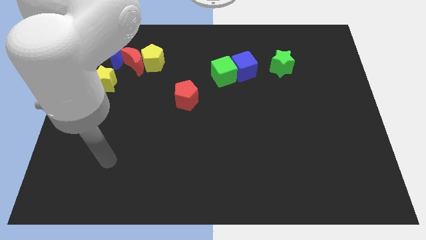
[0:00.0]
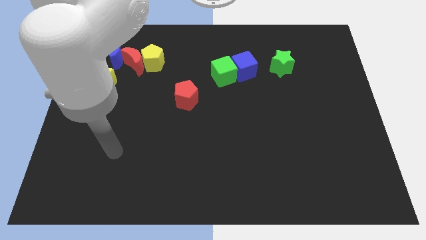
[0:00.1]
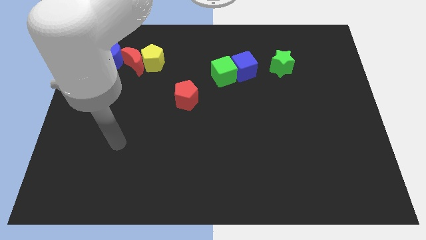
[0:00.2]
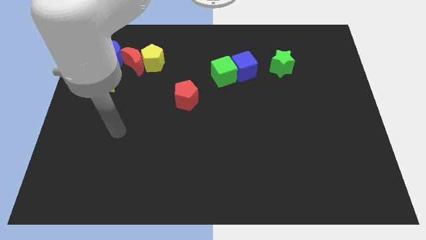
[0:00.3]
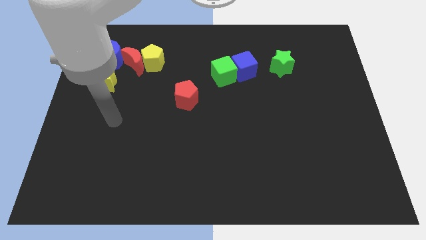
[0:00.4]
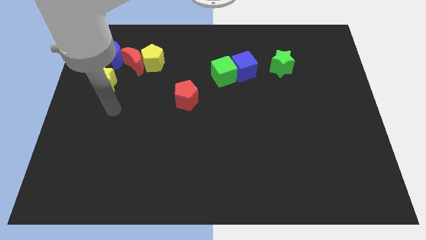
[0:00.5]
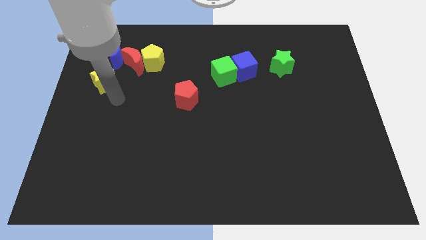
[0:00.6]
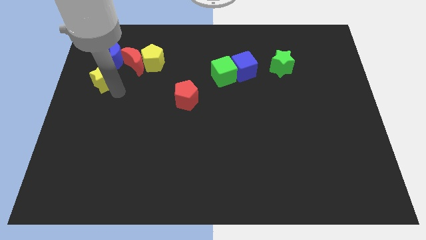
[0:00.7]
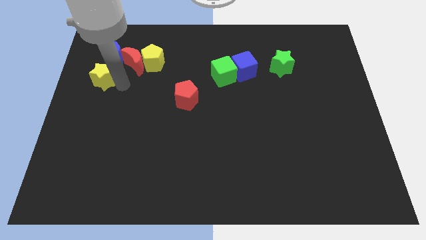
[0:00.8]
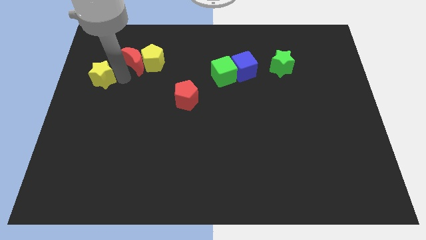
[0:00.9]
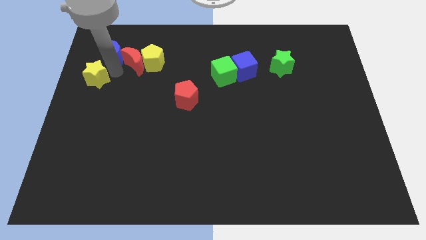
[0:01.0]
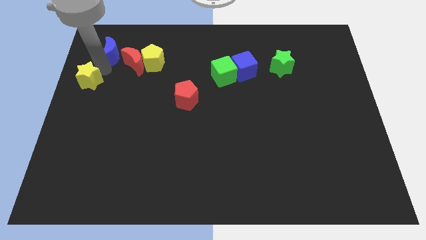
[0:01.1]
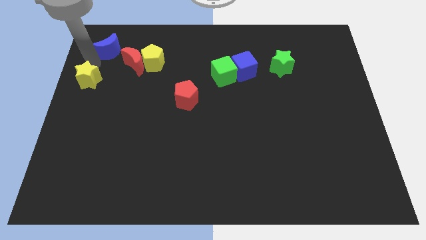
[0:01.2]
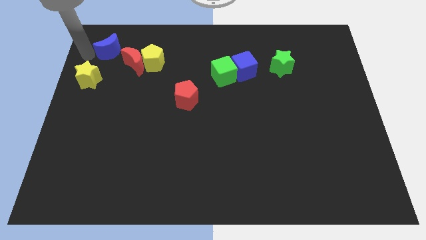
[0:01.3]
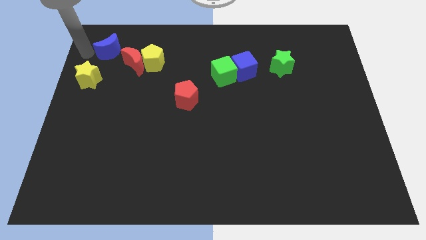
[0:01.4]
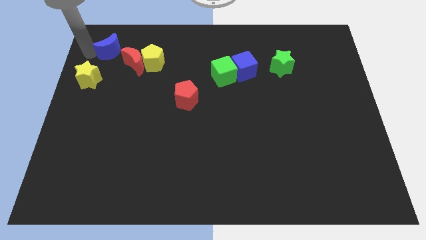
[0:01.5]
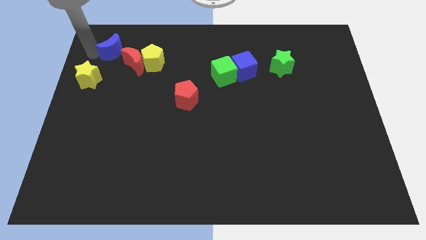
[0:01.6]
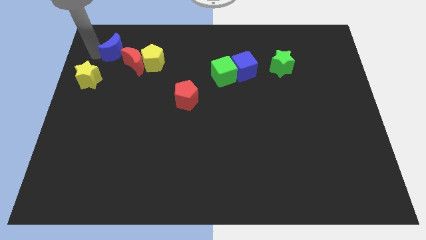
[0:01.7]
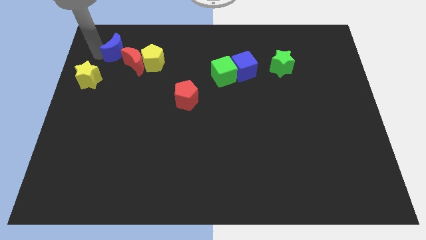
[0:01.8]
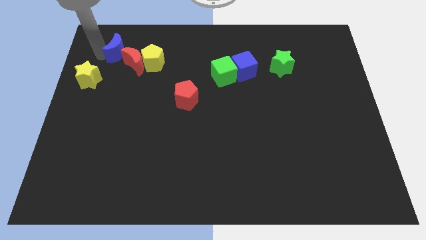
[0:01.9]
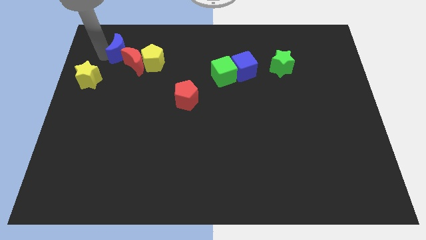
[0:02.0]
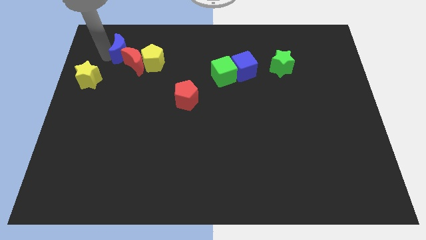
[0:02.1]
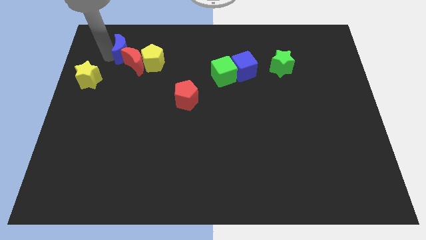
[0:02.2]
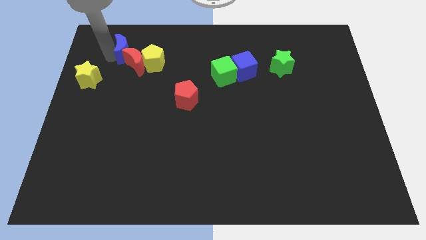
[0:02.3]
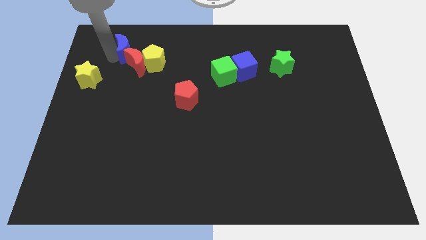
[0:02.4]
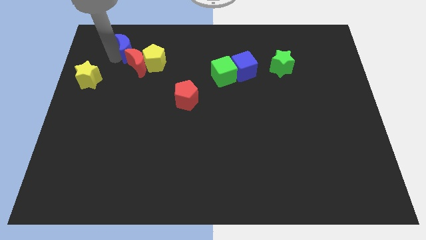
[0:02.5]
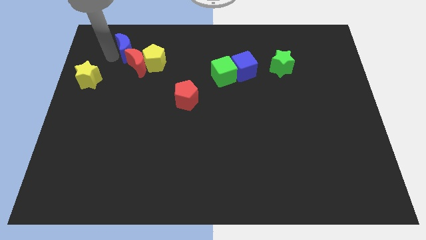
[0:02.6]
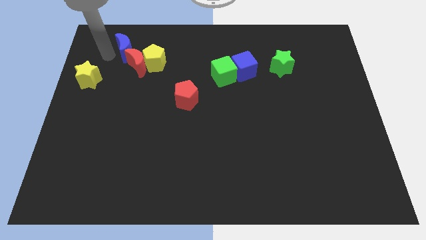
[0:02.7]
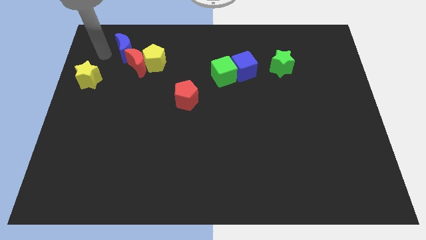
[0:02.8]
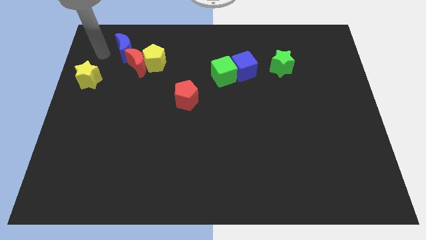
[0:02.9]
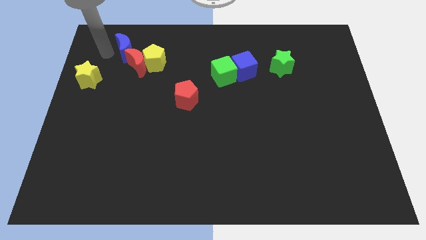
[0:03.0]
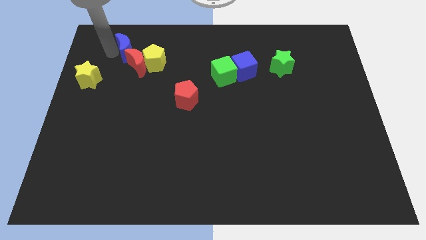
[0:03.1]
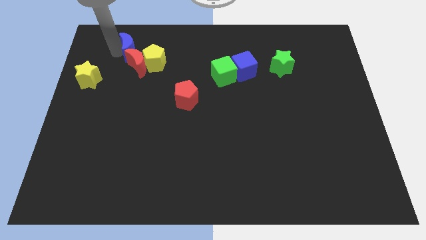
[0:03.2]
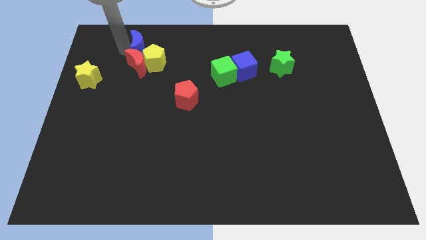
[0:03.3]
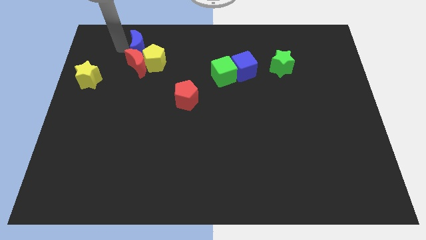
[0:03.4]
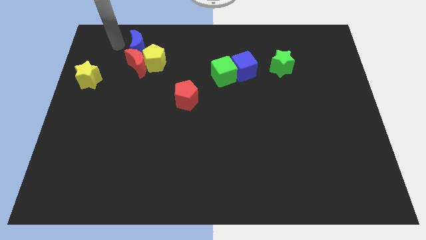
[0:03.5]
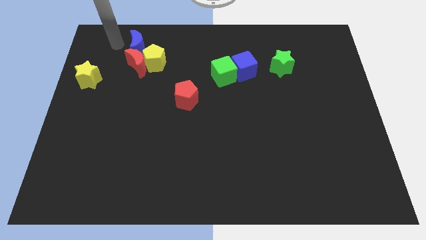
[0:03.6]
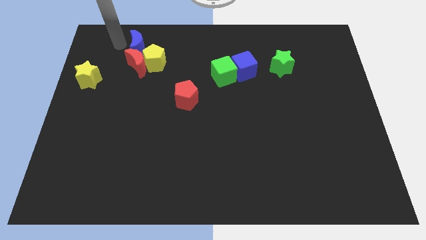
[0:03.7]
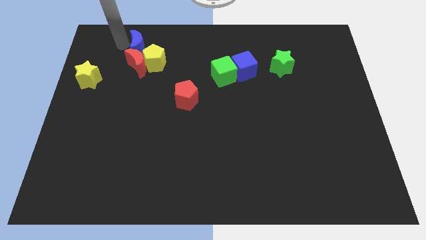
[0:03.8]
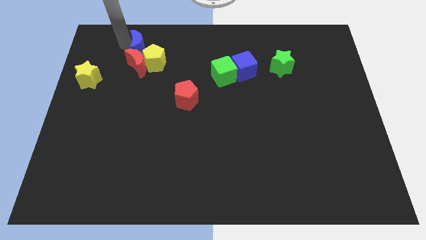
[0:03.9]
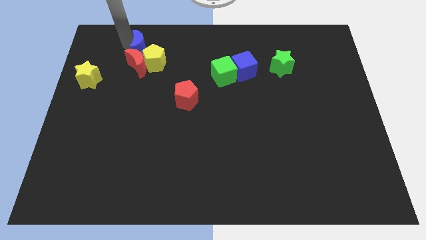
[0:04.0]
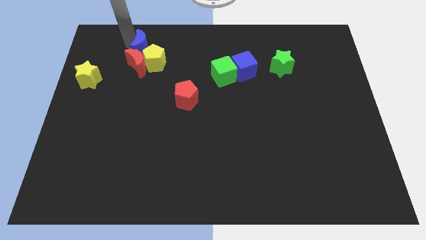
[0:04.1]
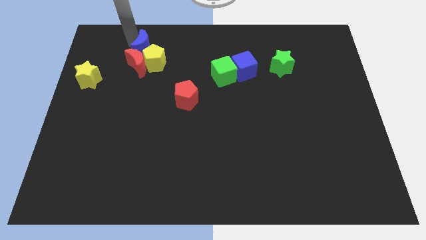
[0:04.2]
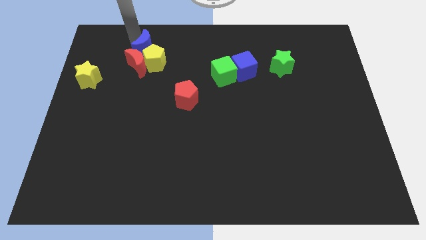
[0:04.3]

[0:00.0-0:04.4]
push the blue moon to the right a bit

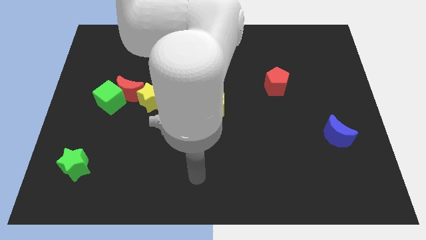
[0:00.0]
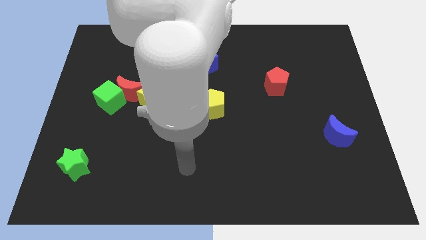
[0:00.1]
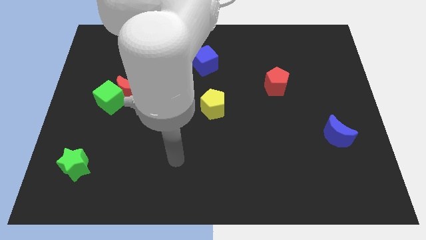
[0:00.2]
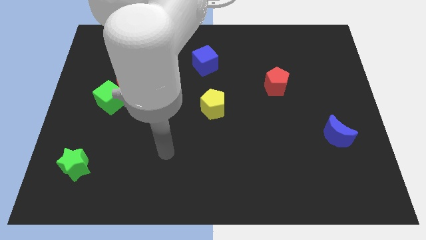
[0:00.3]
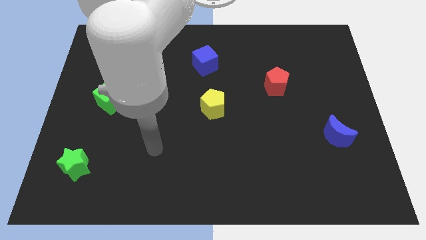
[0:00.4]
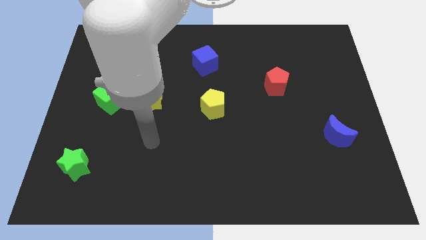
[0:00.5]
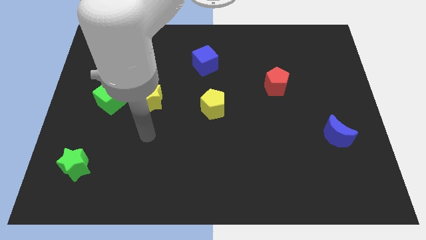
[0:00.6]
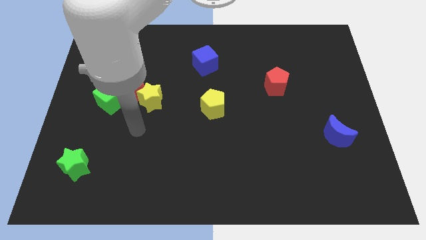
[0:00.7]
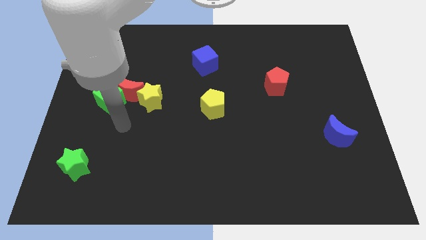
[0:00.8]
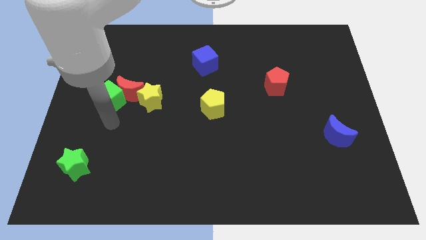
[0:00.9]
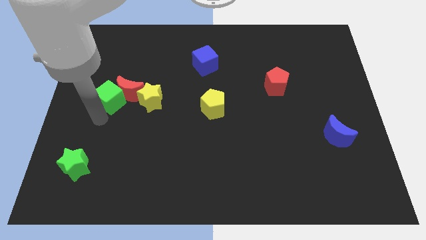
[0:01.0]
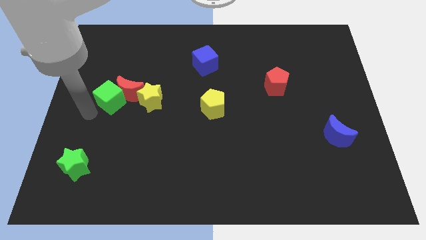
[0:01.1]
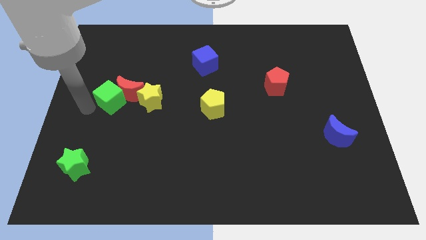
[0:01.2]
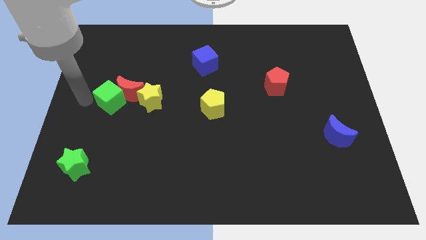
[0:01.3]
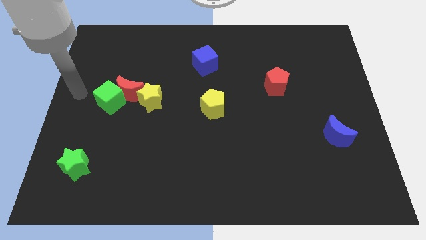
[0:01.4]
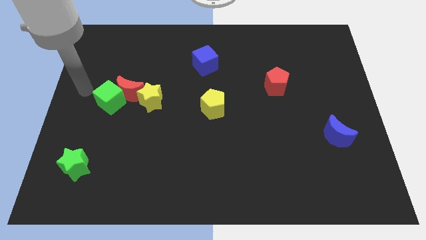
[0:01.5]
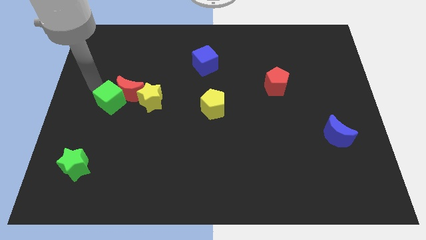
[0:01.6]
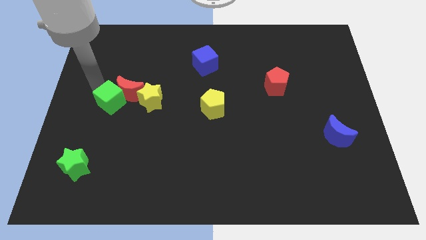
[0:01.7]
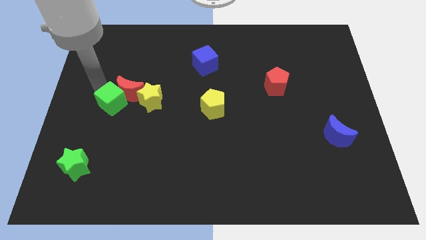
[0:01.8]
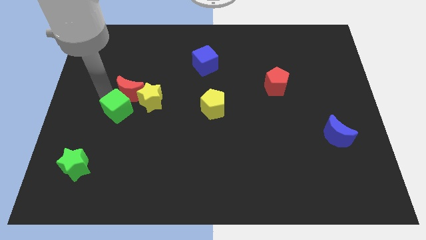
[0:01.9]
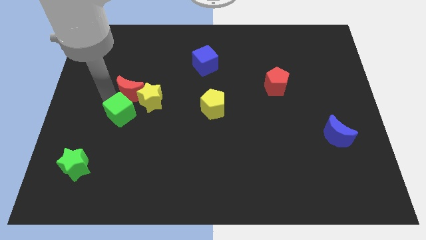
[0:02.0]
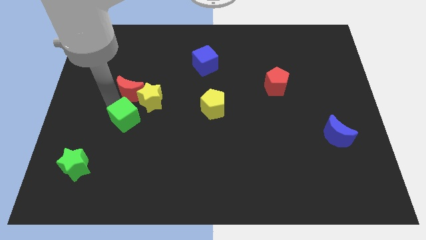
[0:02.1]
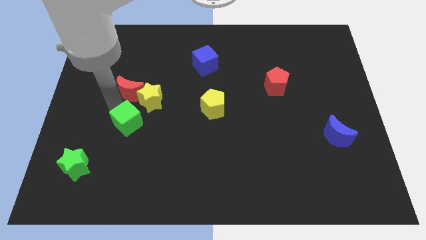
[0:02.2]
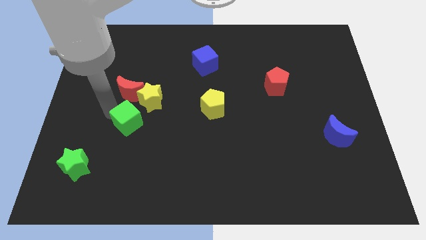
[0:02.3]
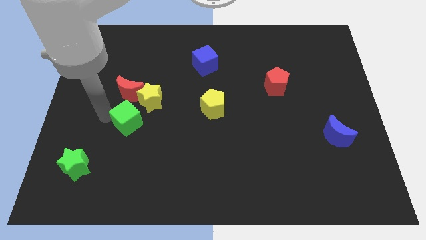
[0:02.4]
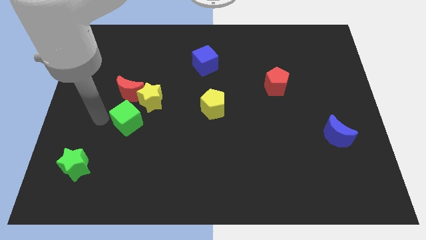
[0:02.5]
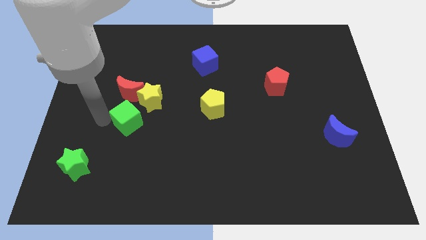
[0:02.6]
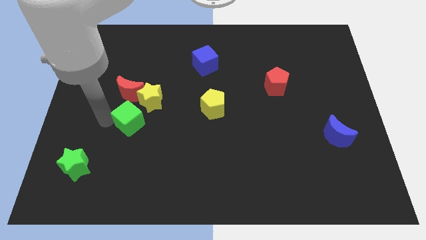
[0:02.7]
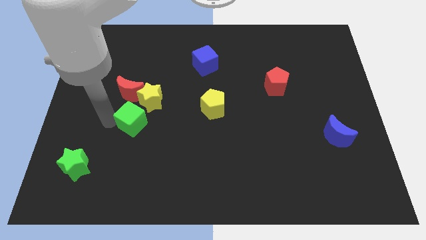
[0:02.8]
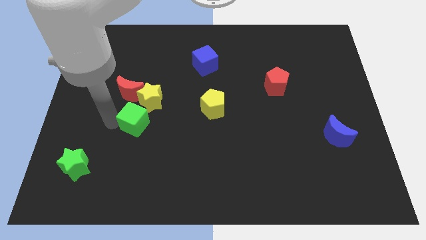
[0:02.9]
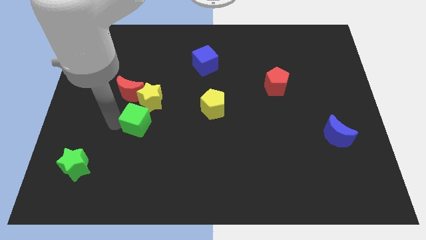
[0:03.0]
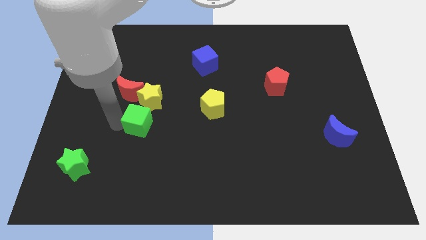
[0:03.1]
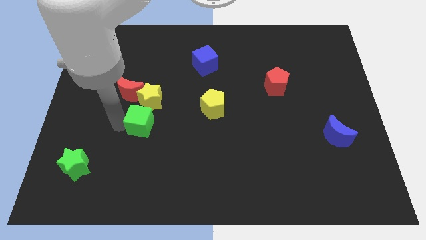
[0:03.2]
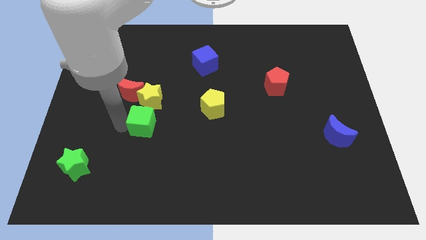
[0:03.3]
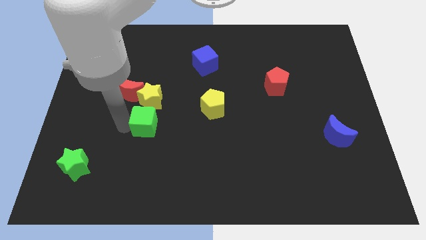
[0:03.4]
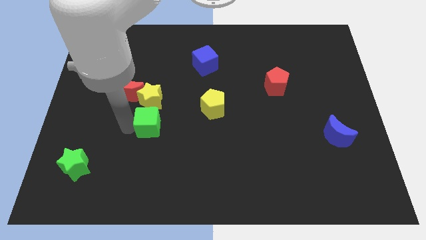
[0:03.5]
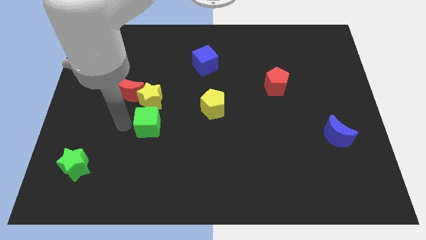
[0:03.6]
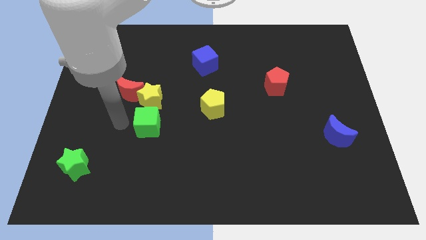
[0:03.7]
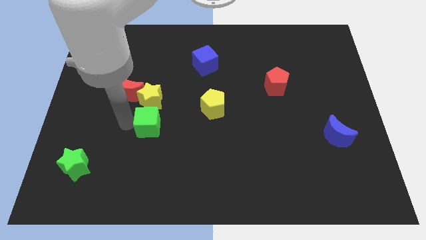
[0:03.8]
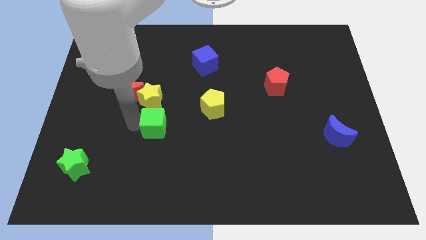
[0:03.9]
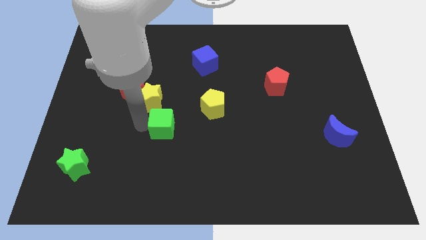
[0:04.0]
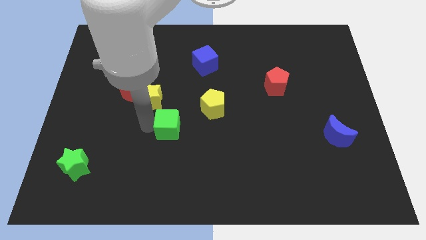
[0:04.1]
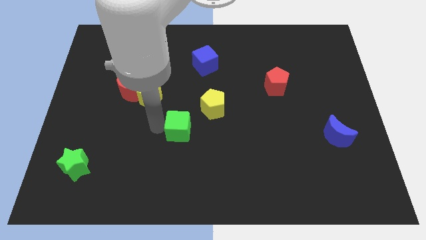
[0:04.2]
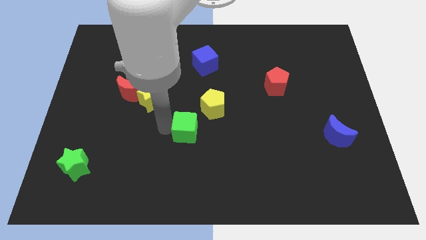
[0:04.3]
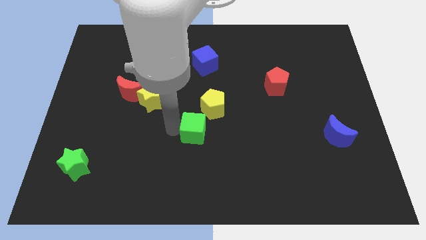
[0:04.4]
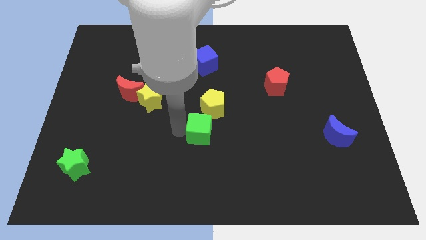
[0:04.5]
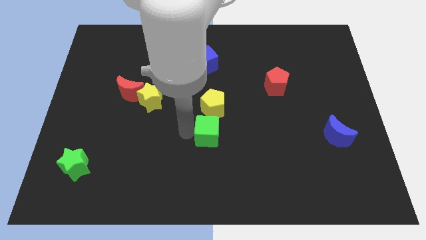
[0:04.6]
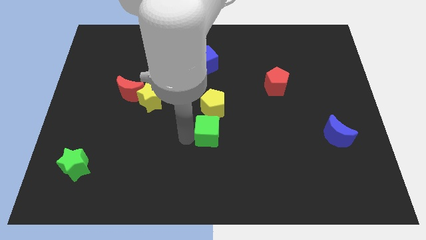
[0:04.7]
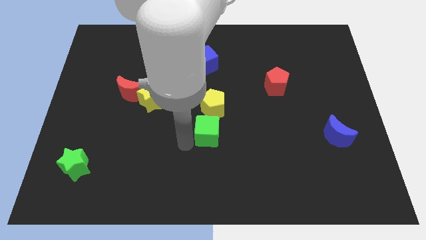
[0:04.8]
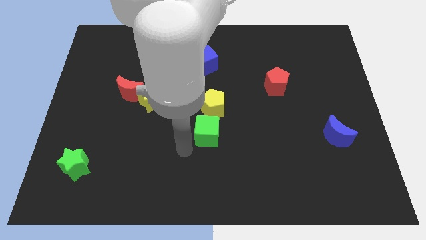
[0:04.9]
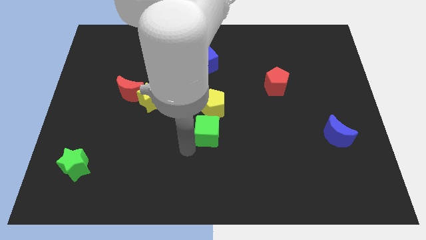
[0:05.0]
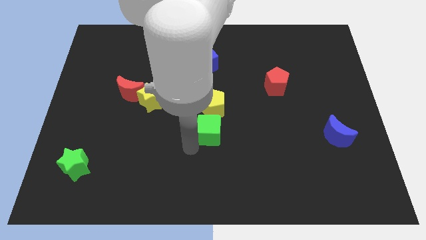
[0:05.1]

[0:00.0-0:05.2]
move the green cube right
